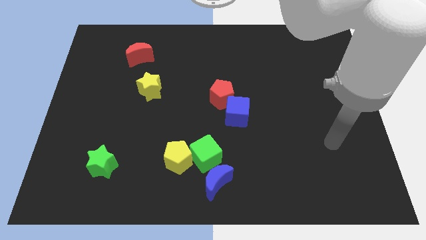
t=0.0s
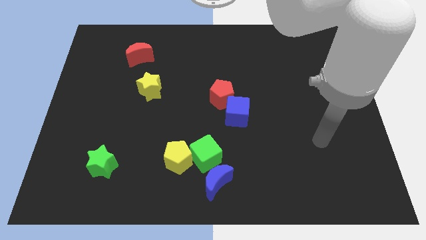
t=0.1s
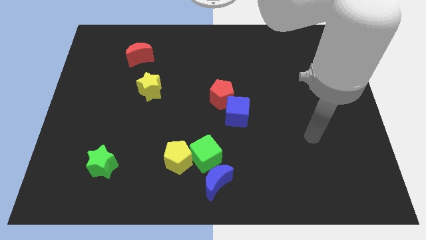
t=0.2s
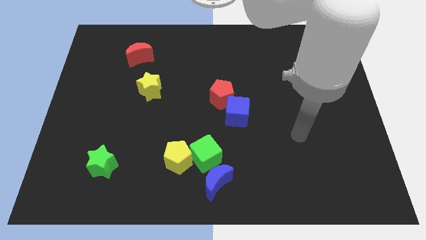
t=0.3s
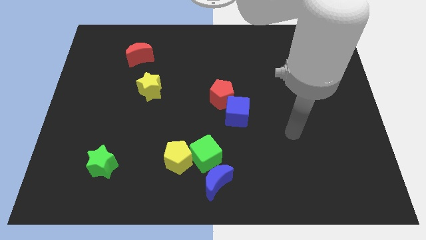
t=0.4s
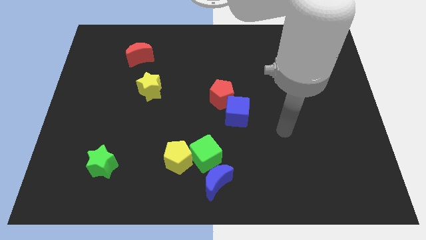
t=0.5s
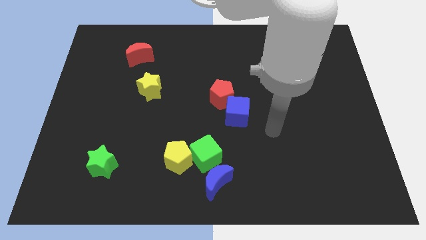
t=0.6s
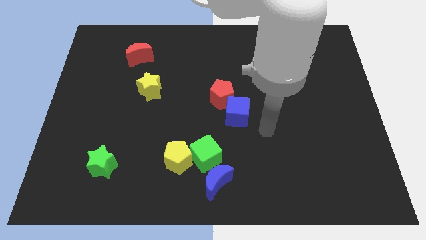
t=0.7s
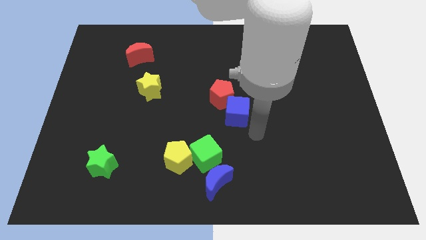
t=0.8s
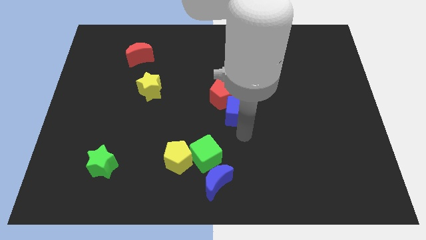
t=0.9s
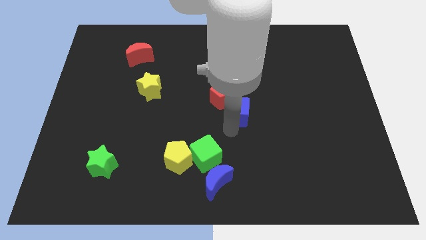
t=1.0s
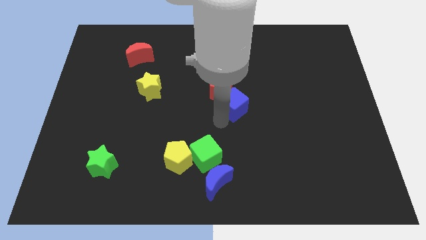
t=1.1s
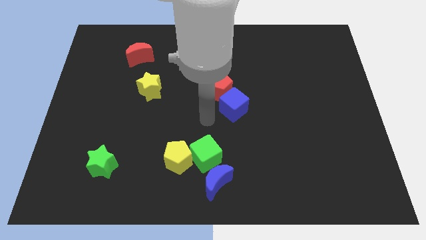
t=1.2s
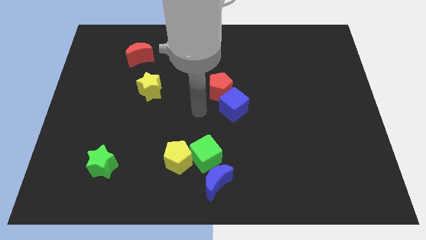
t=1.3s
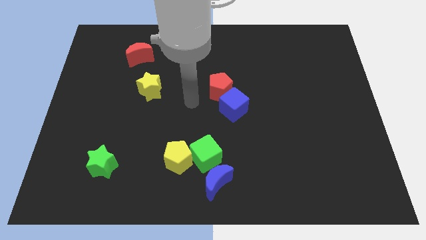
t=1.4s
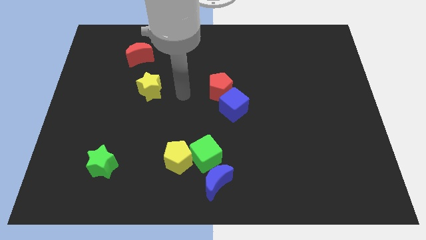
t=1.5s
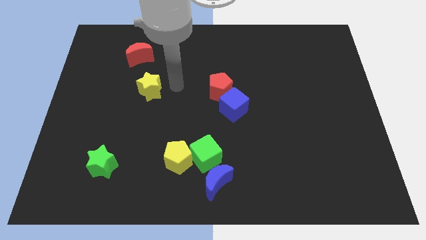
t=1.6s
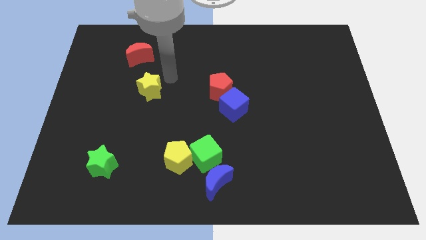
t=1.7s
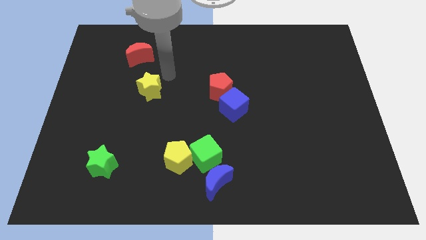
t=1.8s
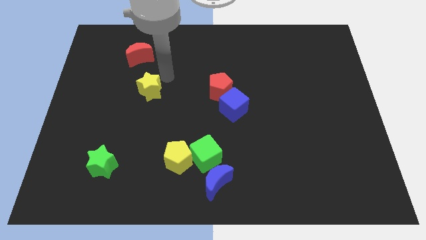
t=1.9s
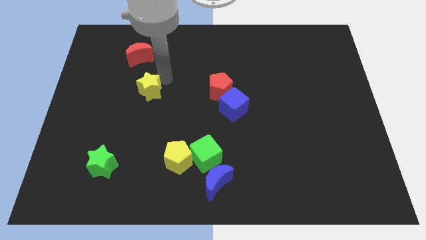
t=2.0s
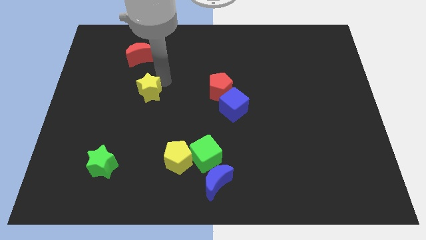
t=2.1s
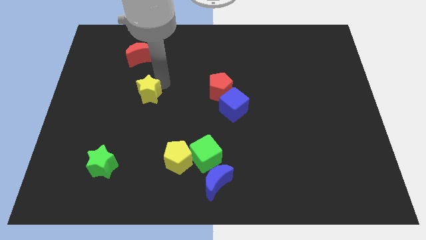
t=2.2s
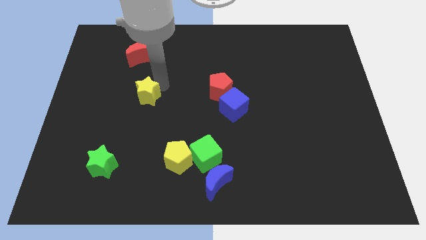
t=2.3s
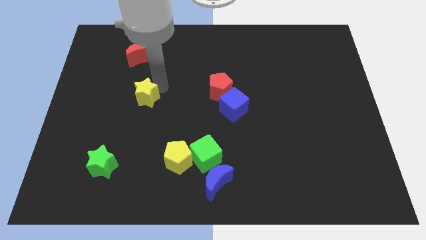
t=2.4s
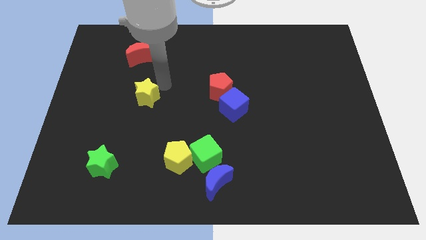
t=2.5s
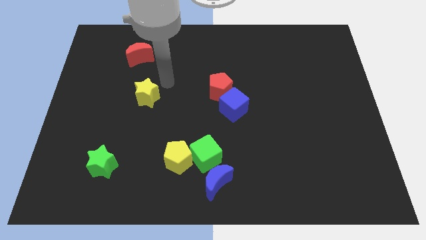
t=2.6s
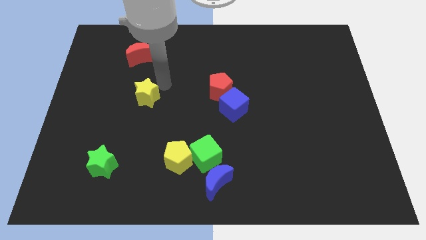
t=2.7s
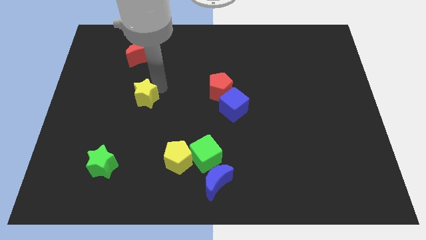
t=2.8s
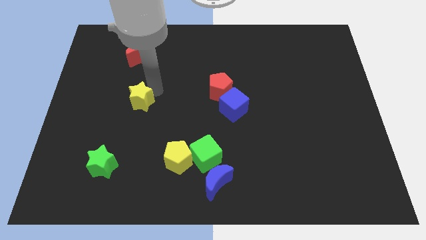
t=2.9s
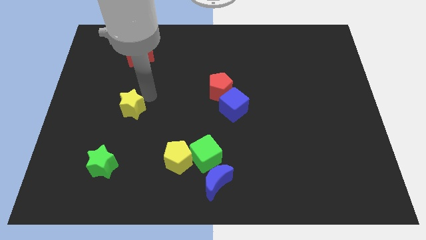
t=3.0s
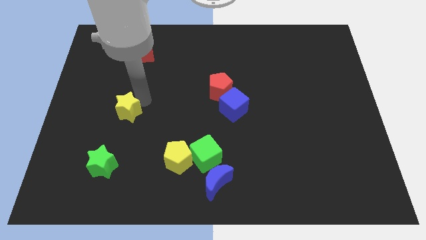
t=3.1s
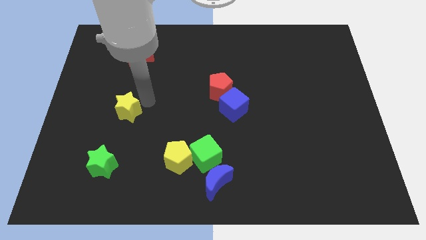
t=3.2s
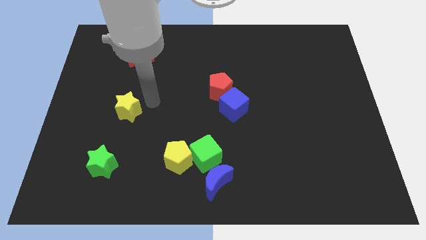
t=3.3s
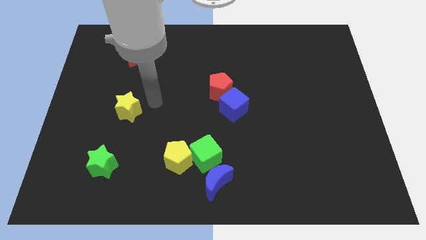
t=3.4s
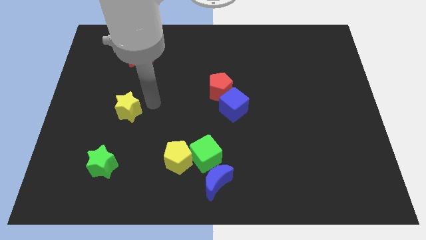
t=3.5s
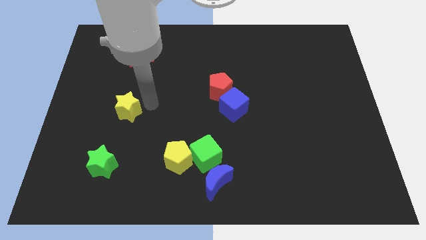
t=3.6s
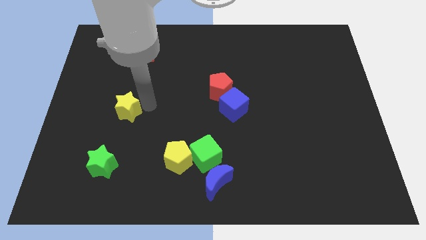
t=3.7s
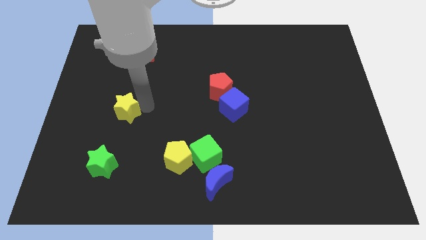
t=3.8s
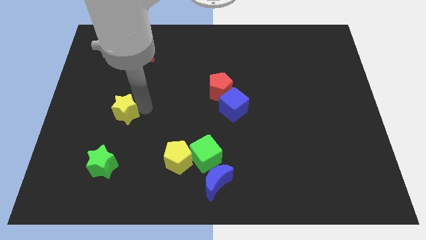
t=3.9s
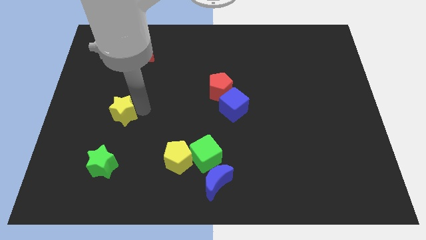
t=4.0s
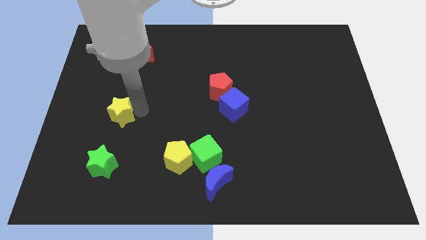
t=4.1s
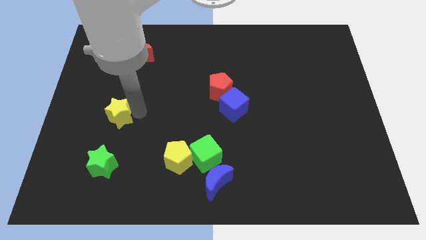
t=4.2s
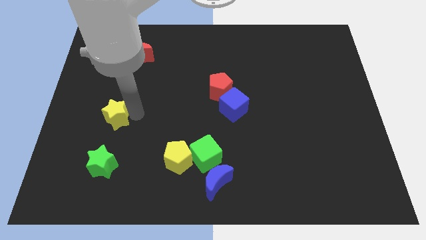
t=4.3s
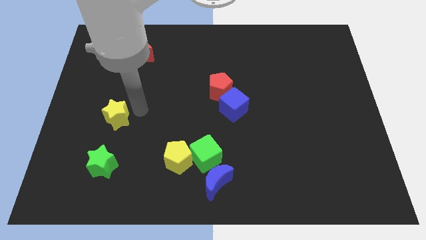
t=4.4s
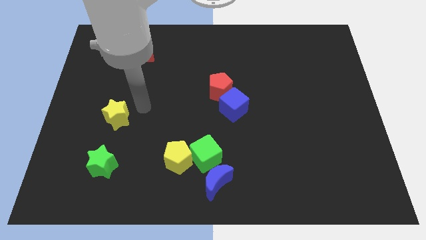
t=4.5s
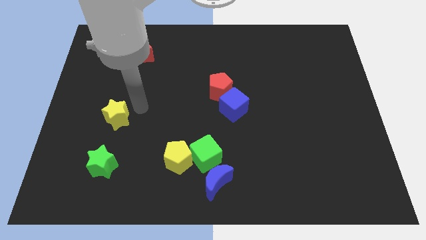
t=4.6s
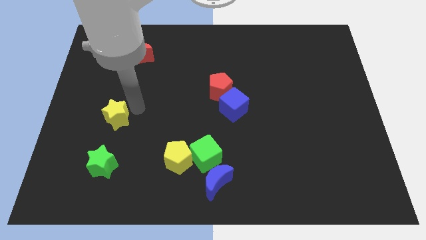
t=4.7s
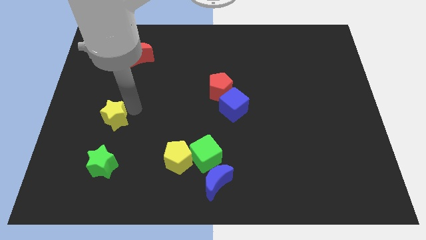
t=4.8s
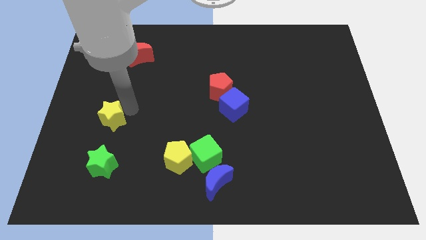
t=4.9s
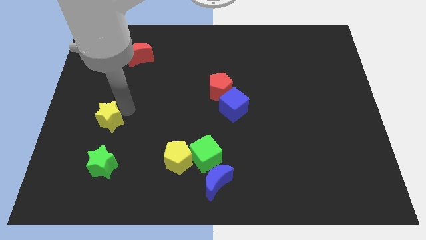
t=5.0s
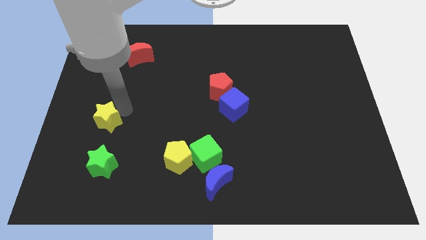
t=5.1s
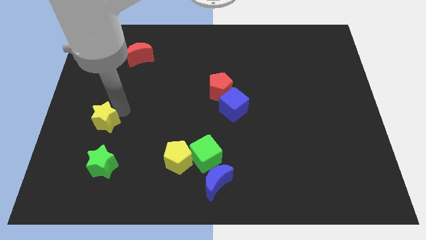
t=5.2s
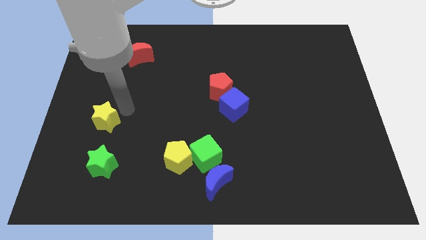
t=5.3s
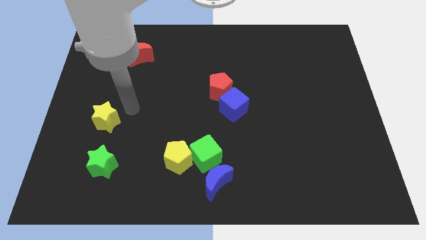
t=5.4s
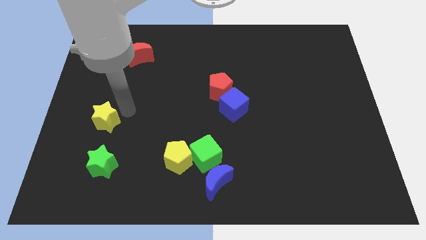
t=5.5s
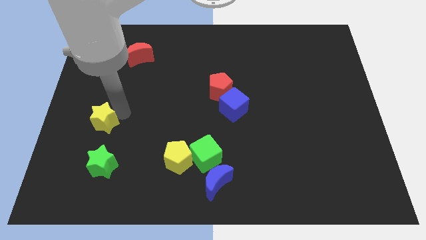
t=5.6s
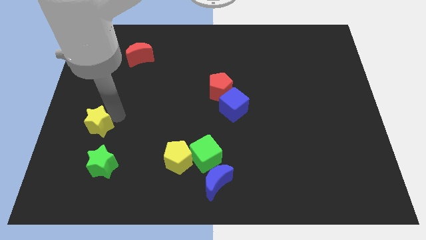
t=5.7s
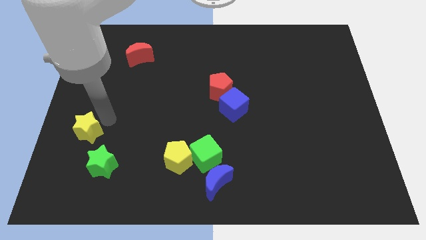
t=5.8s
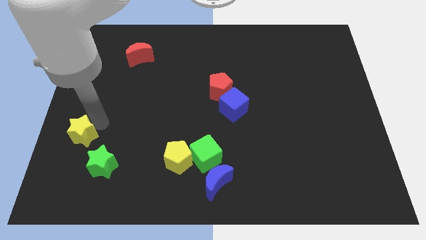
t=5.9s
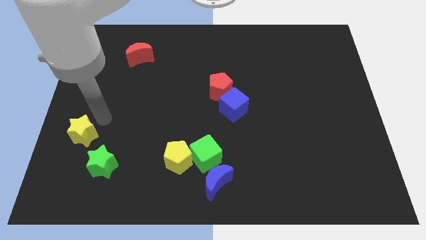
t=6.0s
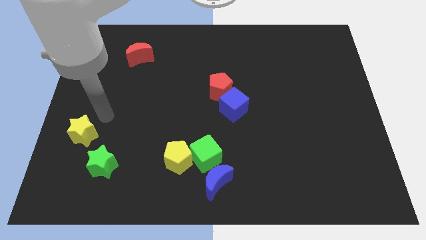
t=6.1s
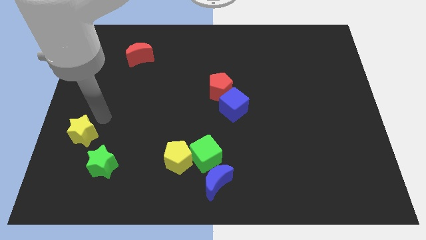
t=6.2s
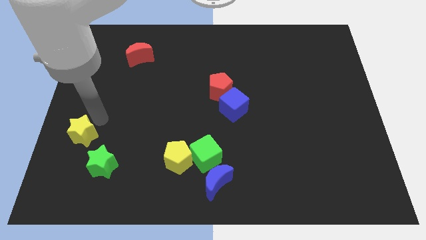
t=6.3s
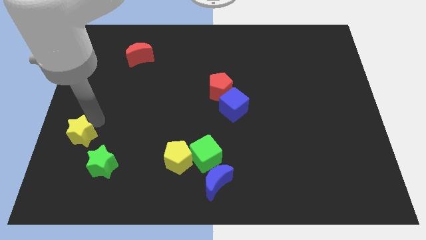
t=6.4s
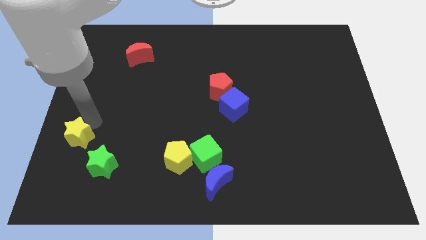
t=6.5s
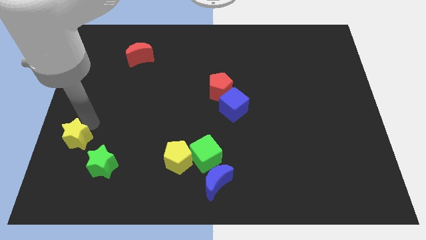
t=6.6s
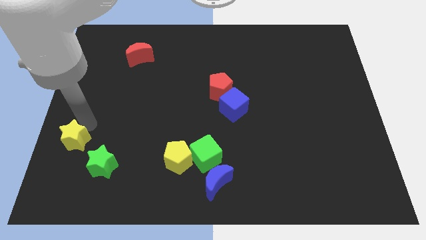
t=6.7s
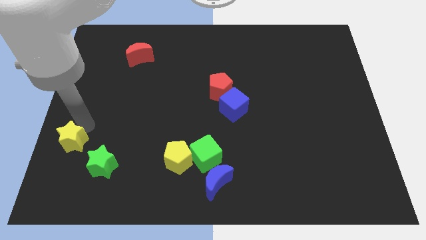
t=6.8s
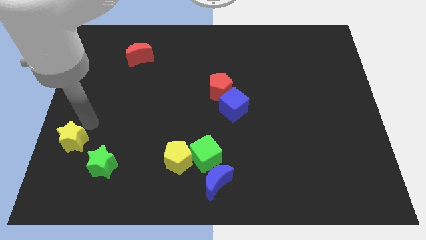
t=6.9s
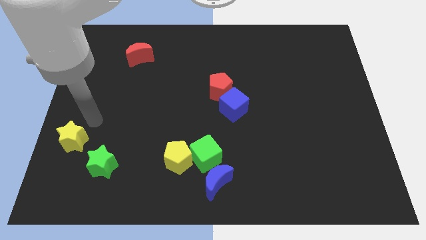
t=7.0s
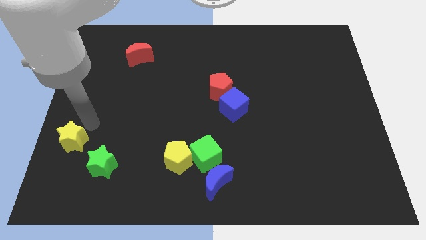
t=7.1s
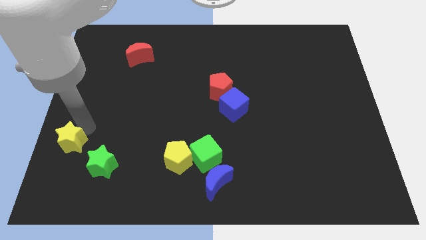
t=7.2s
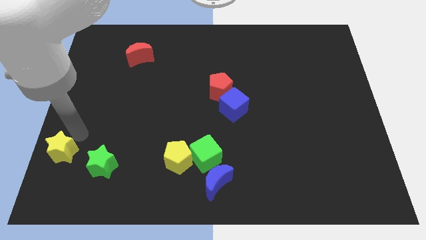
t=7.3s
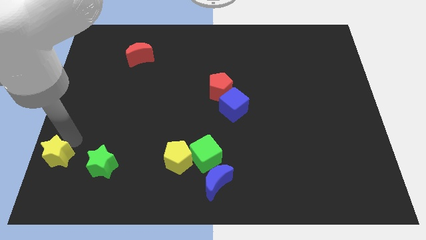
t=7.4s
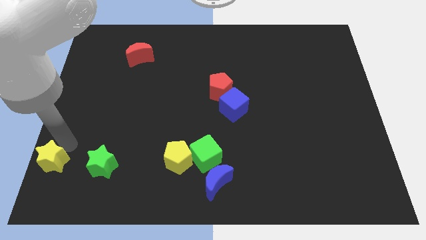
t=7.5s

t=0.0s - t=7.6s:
push the yellow star to the lower left corner
